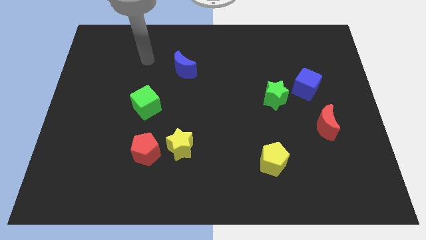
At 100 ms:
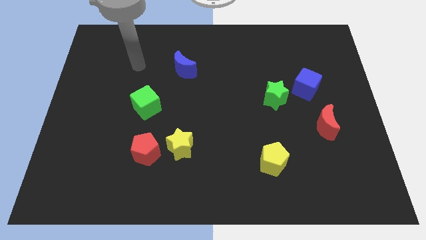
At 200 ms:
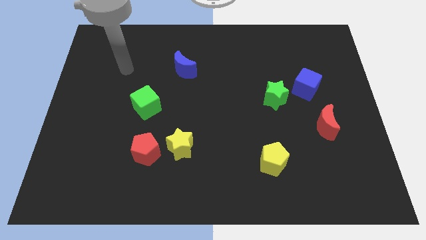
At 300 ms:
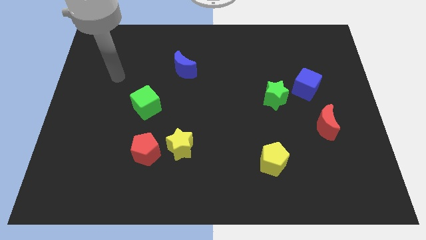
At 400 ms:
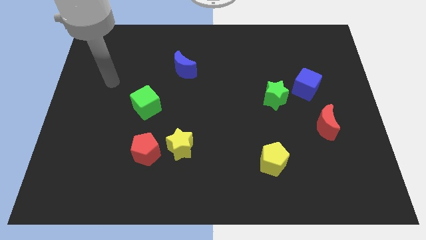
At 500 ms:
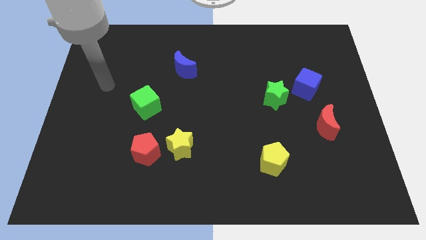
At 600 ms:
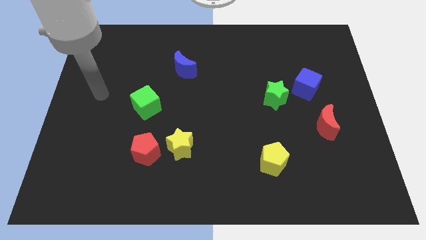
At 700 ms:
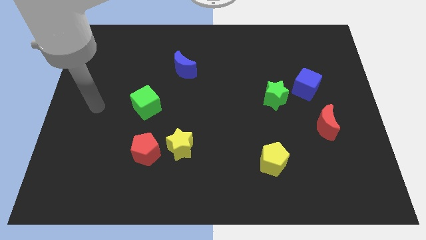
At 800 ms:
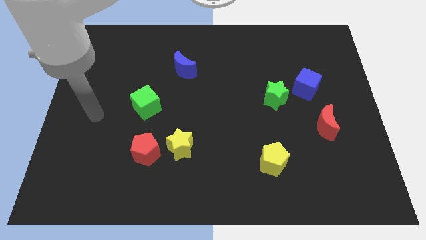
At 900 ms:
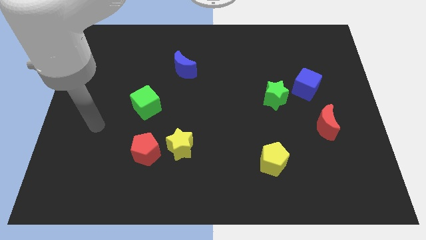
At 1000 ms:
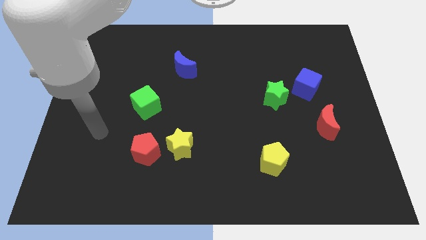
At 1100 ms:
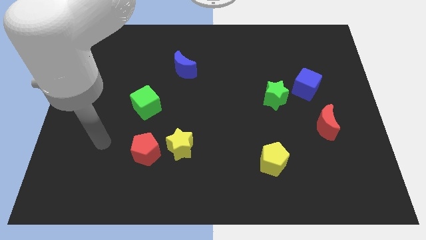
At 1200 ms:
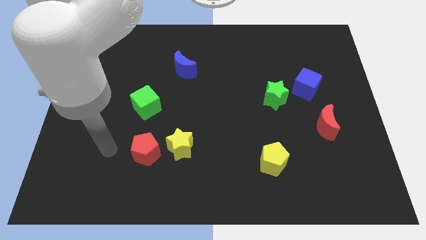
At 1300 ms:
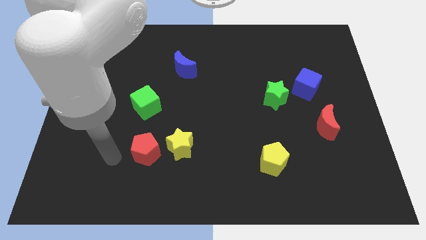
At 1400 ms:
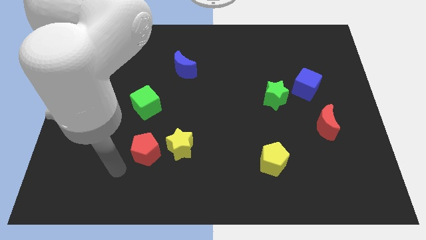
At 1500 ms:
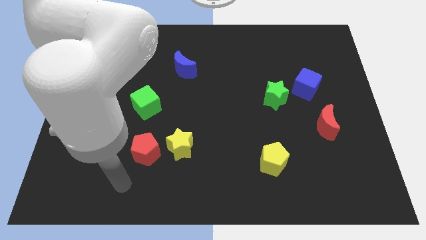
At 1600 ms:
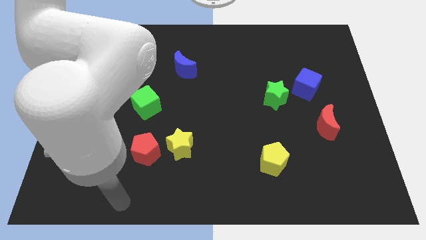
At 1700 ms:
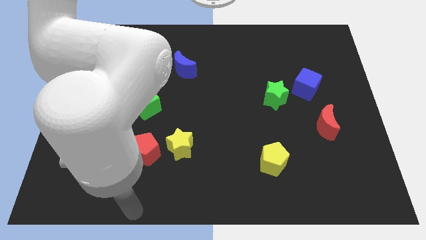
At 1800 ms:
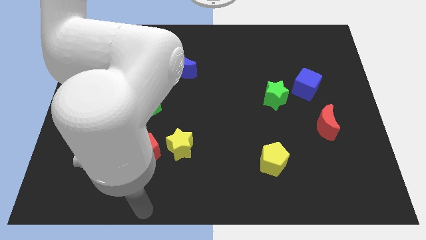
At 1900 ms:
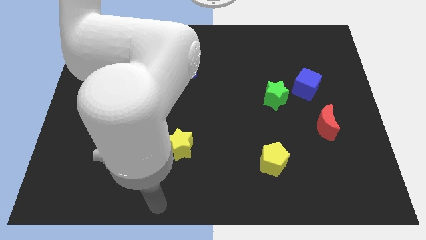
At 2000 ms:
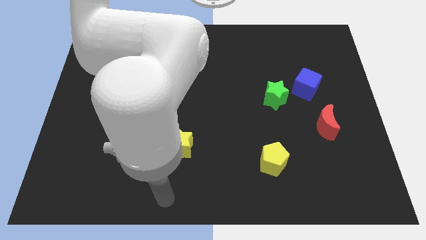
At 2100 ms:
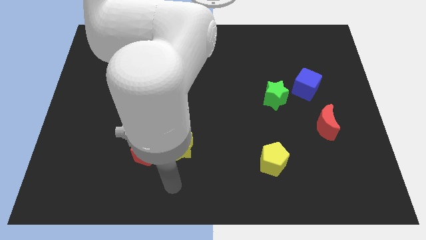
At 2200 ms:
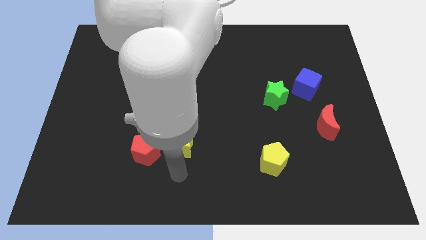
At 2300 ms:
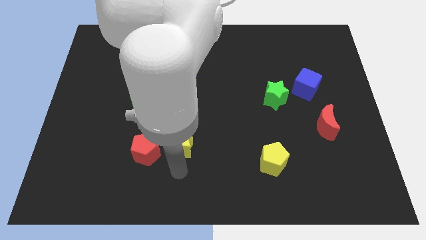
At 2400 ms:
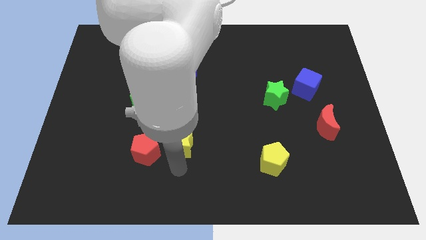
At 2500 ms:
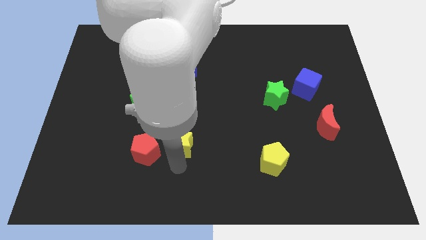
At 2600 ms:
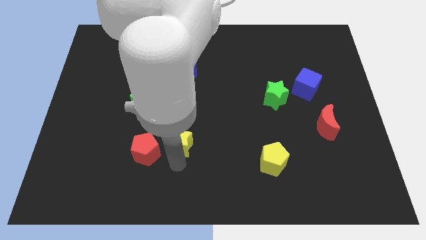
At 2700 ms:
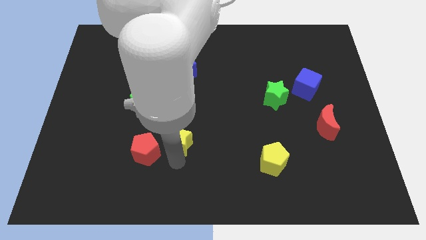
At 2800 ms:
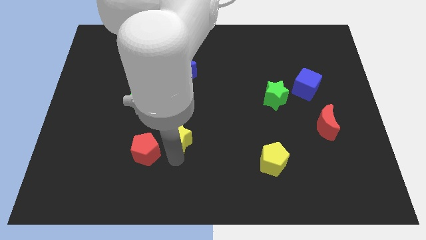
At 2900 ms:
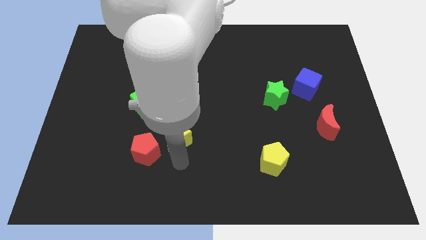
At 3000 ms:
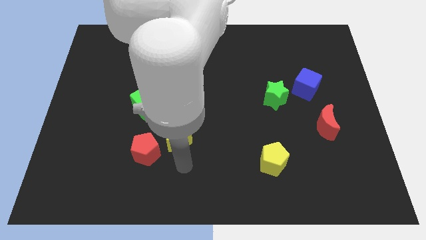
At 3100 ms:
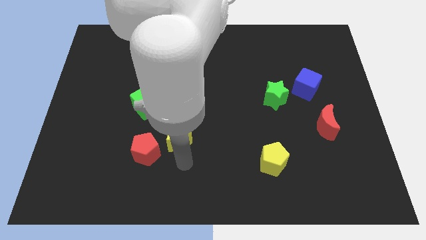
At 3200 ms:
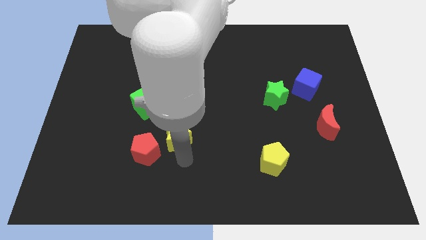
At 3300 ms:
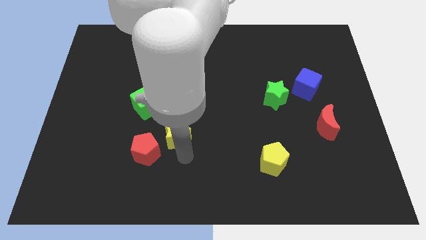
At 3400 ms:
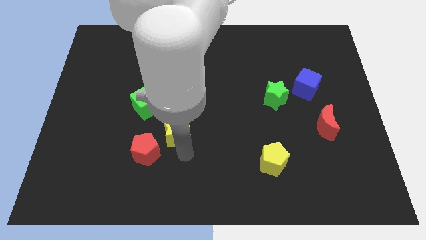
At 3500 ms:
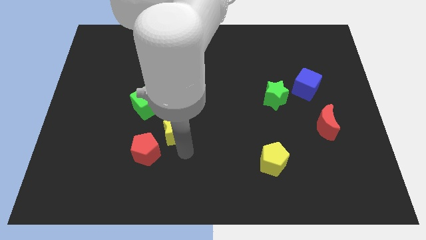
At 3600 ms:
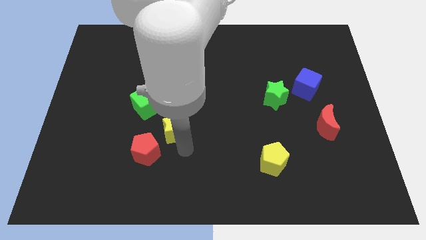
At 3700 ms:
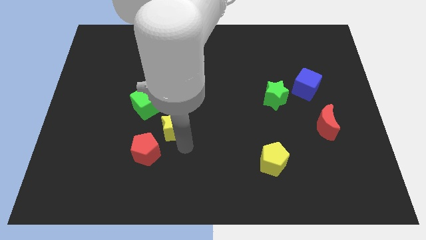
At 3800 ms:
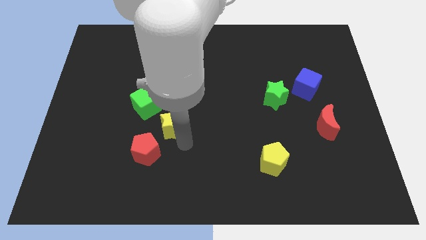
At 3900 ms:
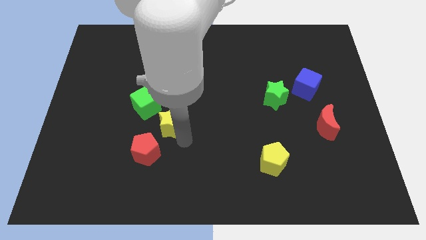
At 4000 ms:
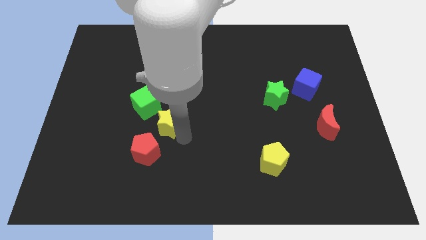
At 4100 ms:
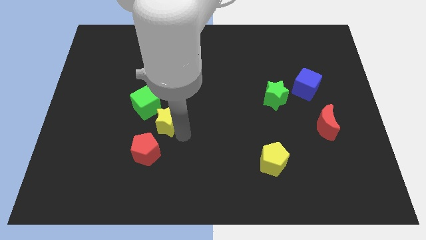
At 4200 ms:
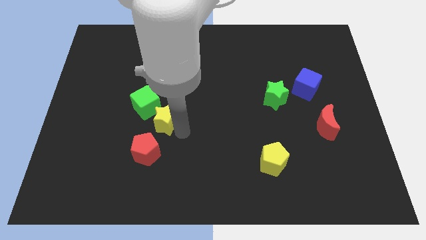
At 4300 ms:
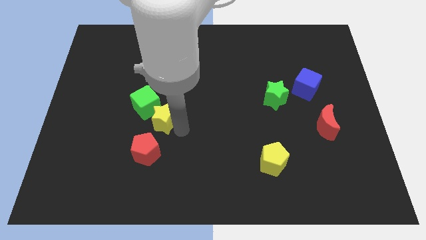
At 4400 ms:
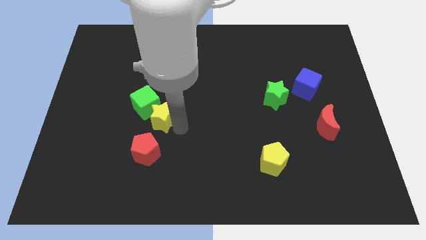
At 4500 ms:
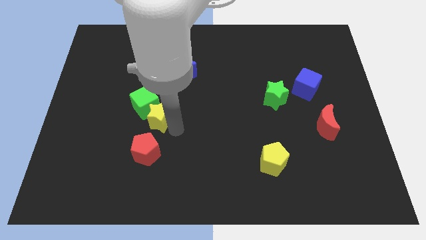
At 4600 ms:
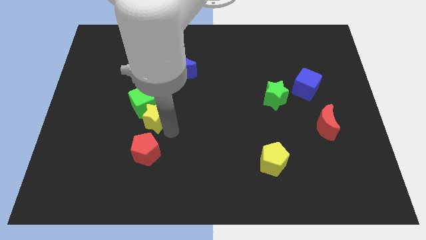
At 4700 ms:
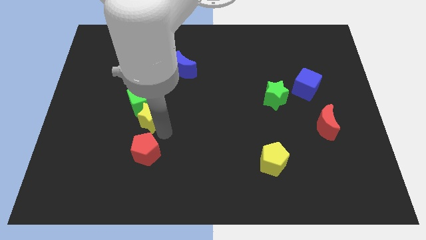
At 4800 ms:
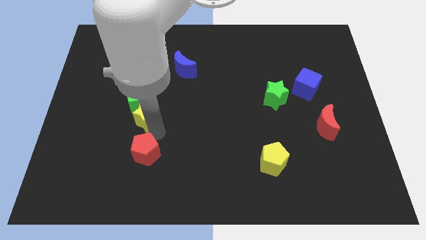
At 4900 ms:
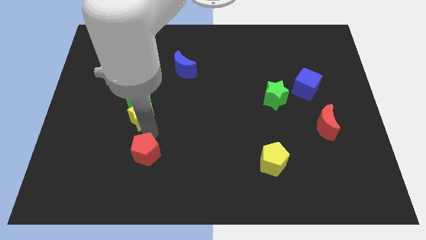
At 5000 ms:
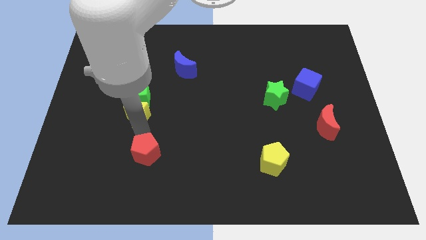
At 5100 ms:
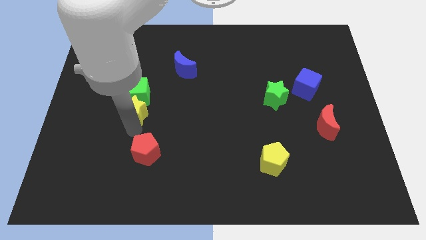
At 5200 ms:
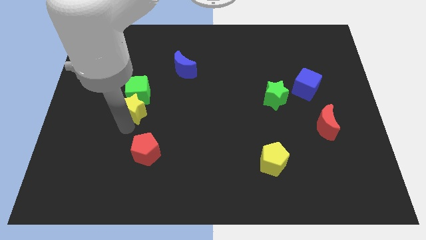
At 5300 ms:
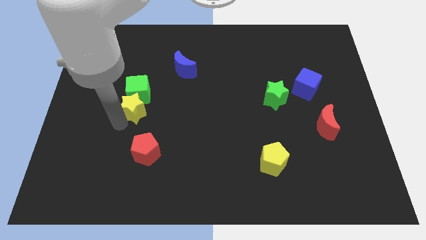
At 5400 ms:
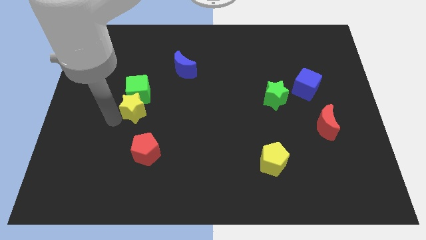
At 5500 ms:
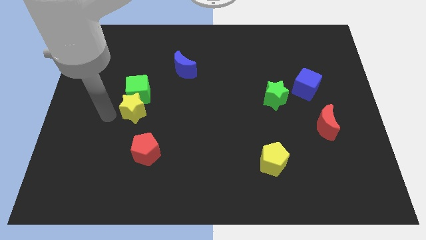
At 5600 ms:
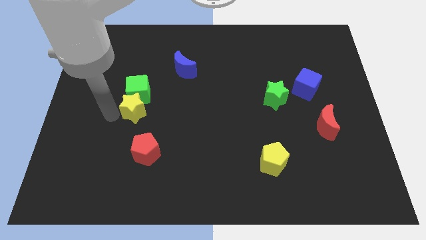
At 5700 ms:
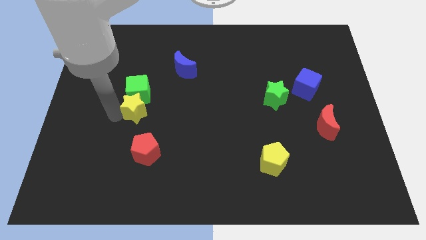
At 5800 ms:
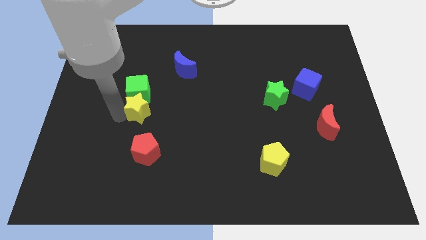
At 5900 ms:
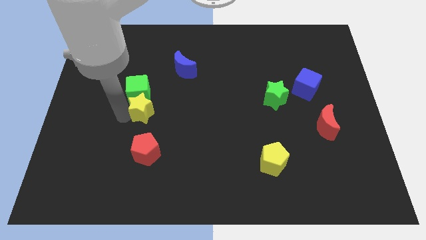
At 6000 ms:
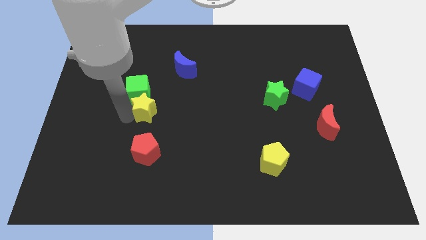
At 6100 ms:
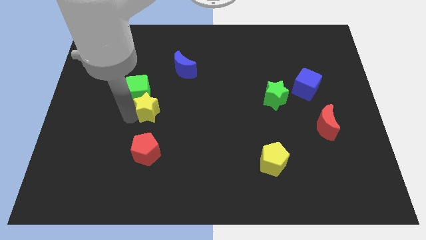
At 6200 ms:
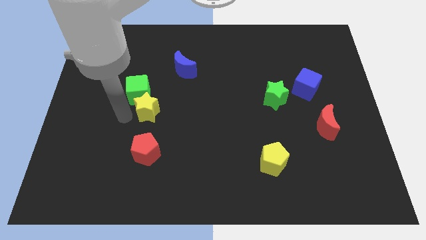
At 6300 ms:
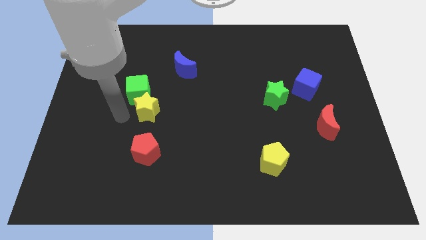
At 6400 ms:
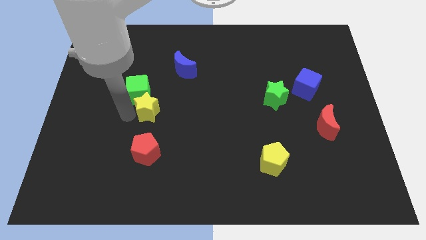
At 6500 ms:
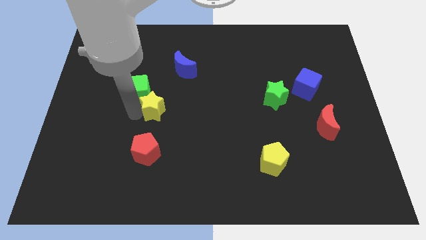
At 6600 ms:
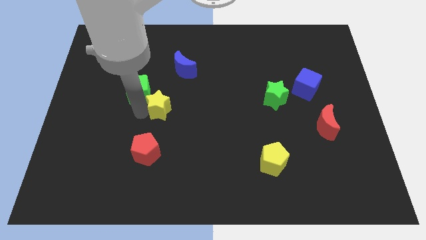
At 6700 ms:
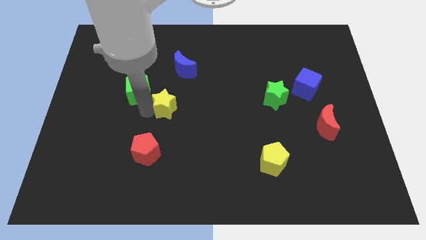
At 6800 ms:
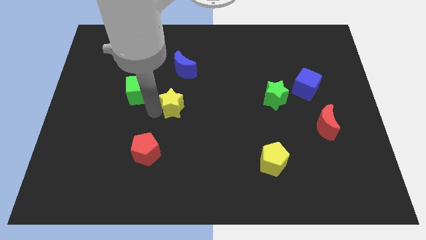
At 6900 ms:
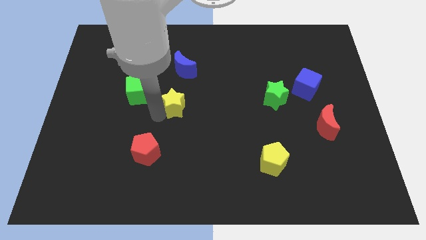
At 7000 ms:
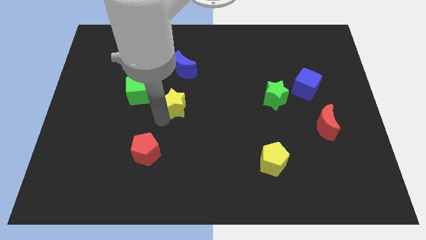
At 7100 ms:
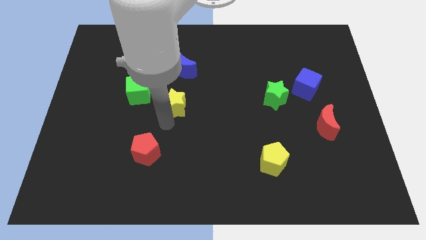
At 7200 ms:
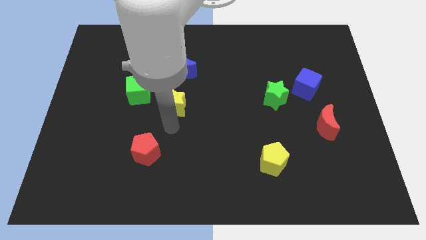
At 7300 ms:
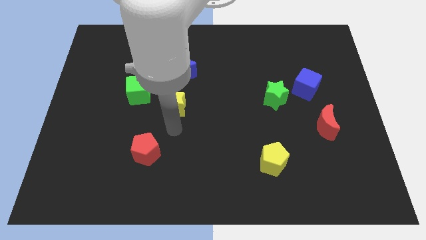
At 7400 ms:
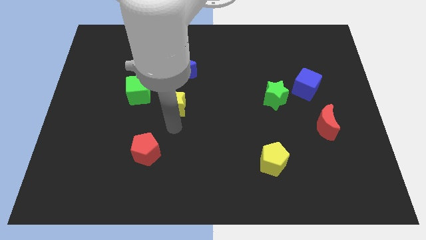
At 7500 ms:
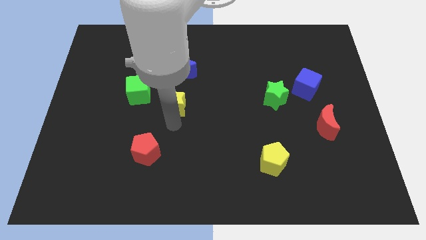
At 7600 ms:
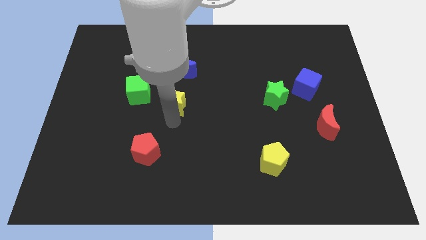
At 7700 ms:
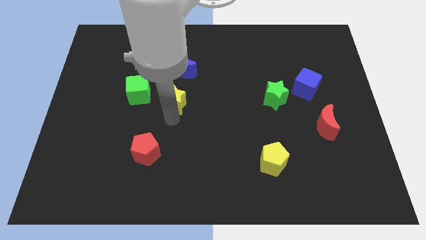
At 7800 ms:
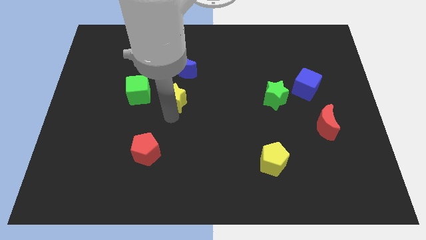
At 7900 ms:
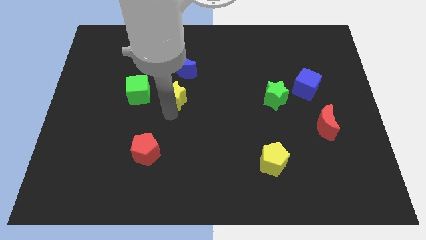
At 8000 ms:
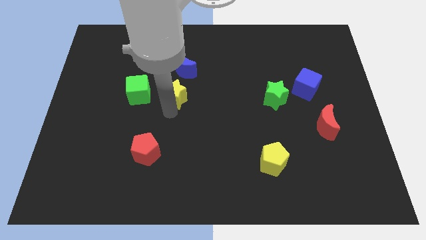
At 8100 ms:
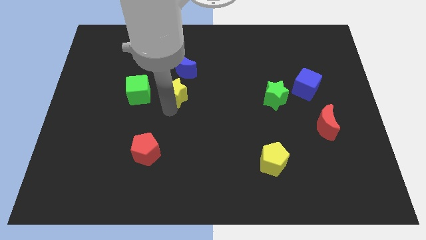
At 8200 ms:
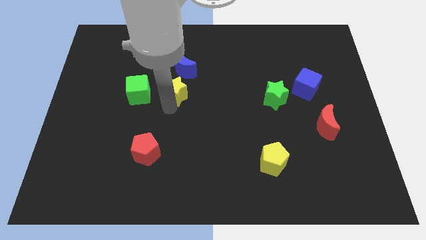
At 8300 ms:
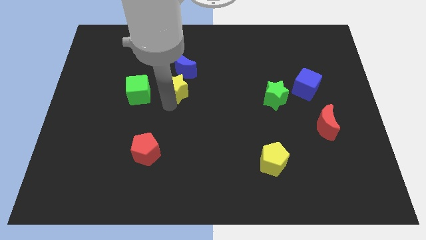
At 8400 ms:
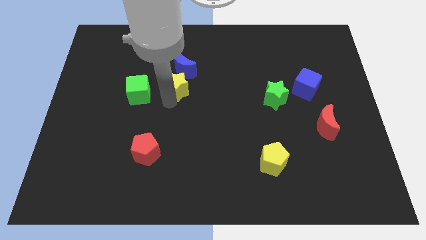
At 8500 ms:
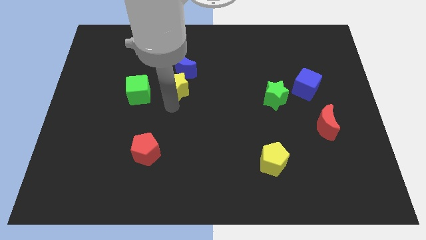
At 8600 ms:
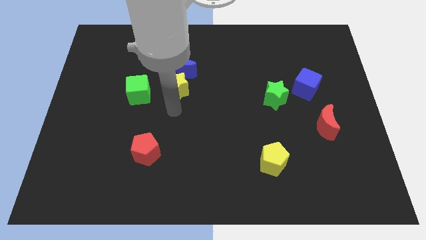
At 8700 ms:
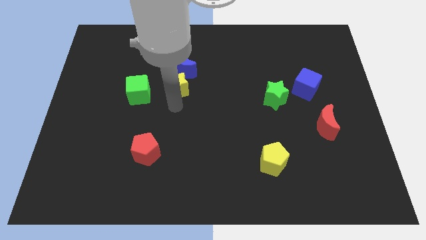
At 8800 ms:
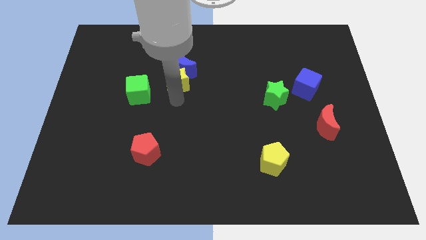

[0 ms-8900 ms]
slide the yellow star towards the blue moon
